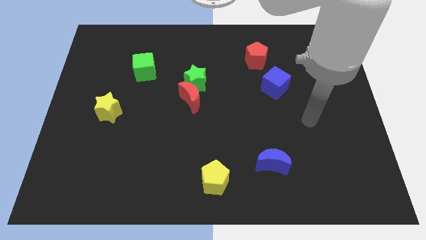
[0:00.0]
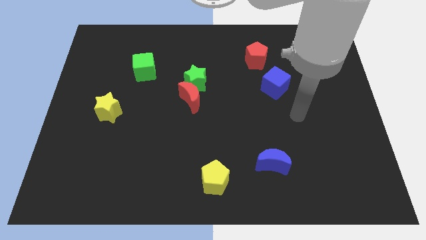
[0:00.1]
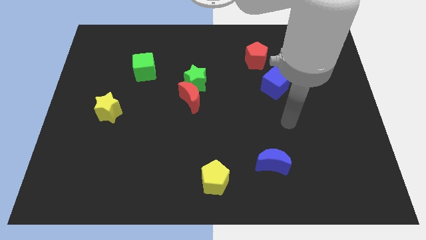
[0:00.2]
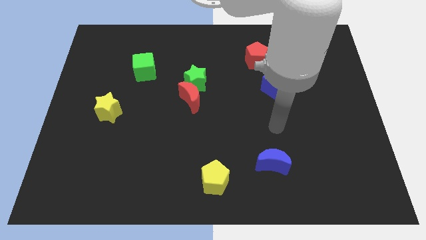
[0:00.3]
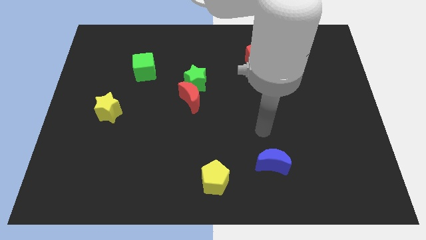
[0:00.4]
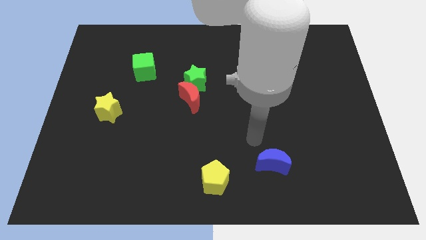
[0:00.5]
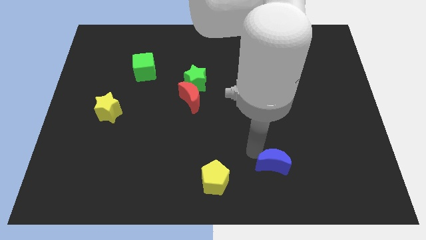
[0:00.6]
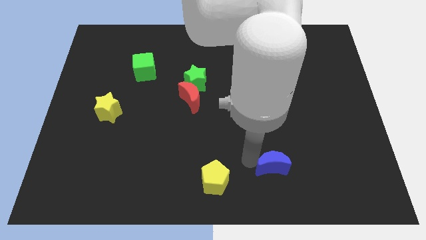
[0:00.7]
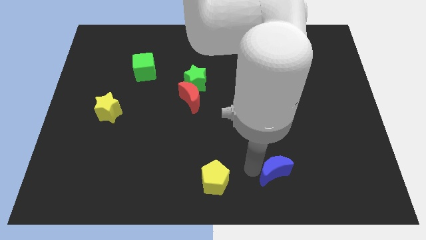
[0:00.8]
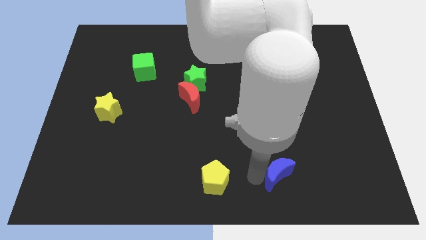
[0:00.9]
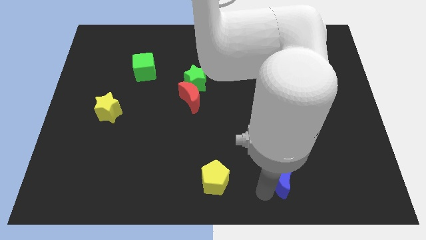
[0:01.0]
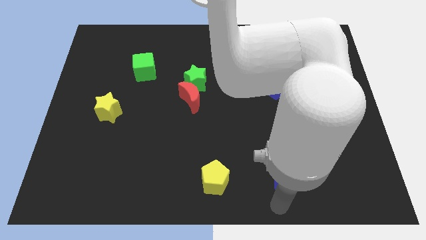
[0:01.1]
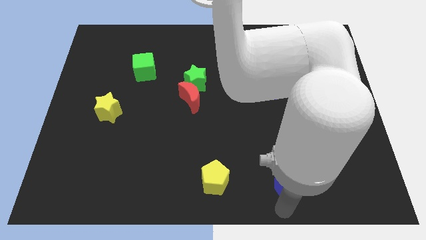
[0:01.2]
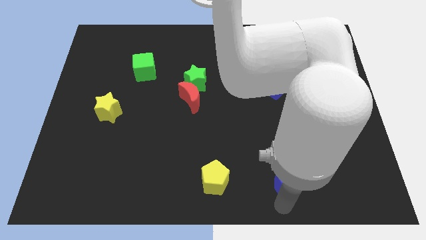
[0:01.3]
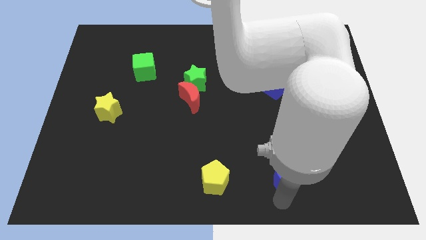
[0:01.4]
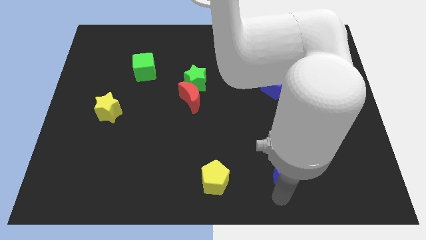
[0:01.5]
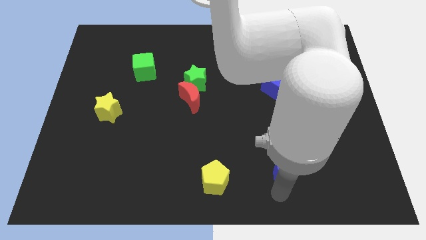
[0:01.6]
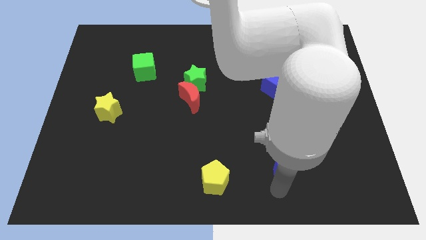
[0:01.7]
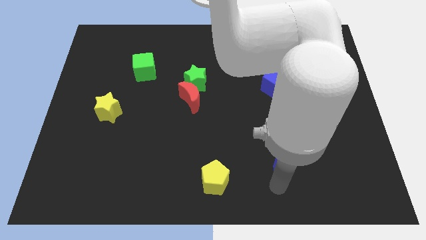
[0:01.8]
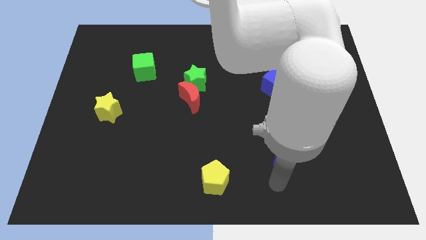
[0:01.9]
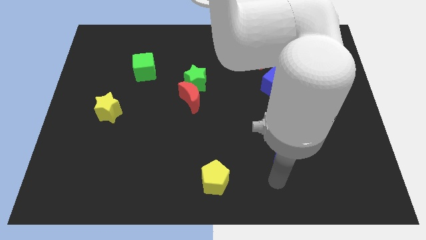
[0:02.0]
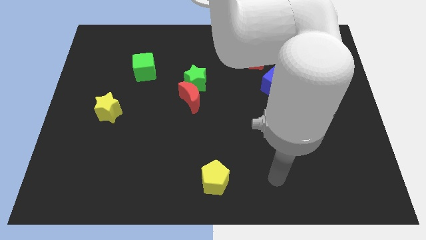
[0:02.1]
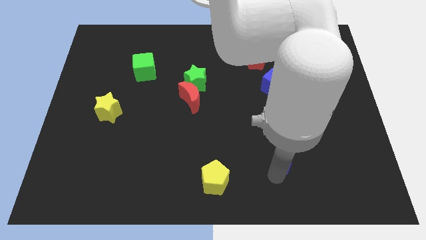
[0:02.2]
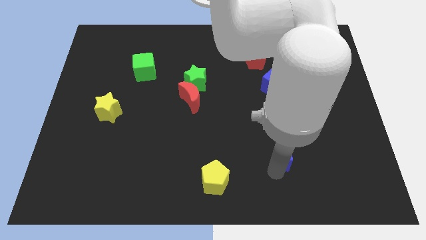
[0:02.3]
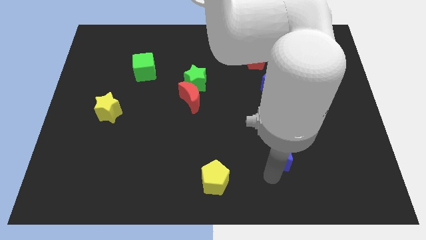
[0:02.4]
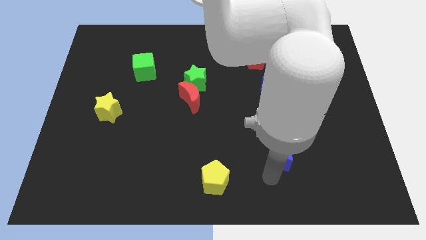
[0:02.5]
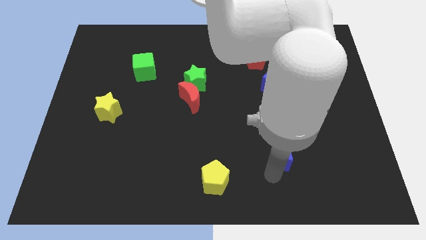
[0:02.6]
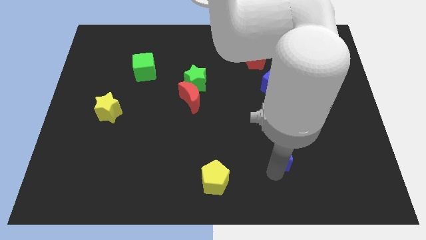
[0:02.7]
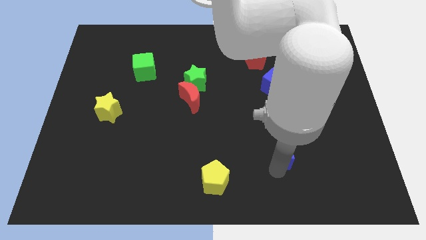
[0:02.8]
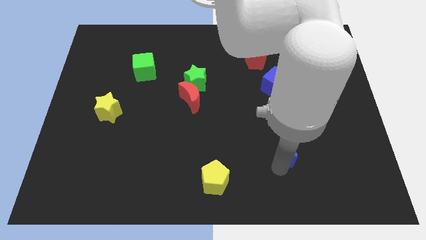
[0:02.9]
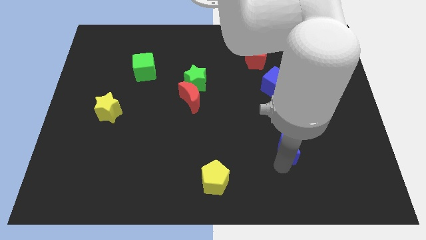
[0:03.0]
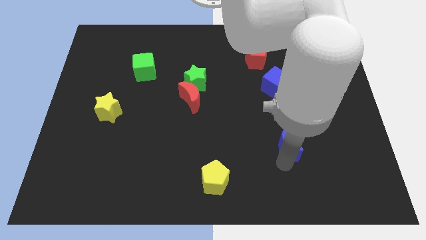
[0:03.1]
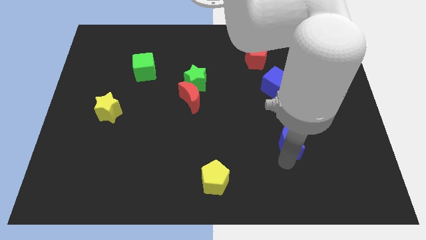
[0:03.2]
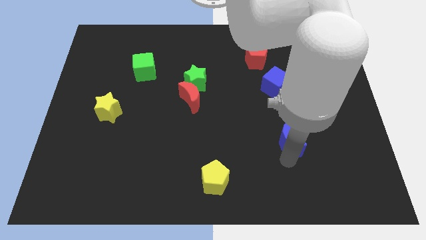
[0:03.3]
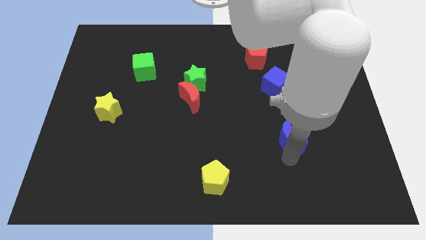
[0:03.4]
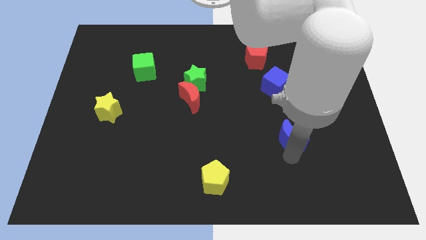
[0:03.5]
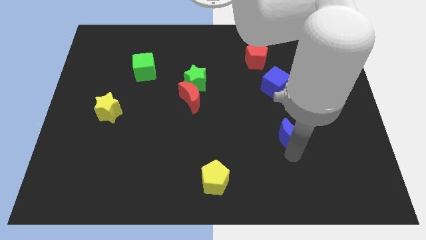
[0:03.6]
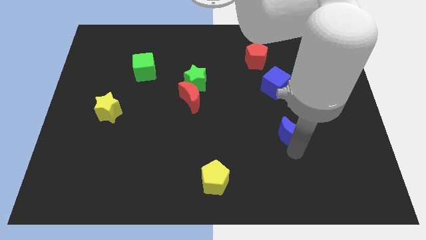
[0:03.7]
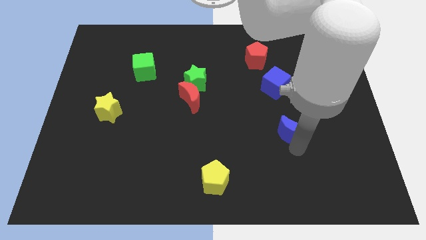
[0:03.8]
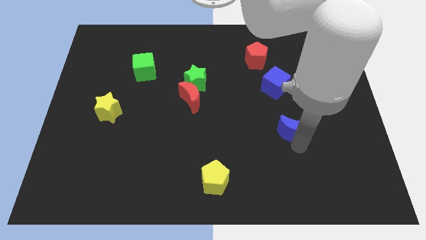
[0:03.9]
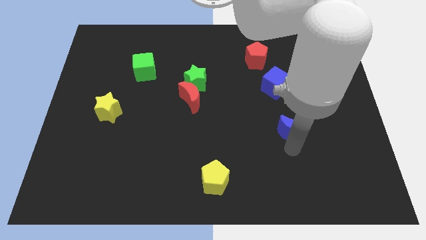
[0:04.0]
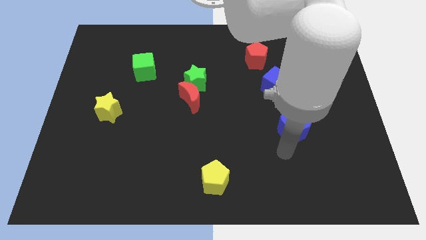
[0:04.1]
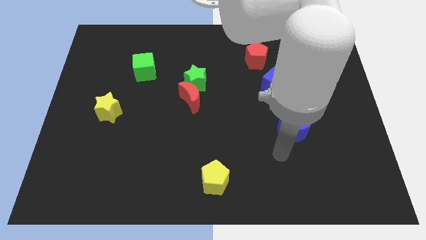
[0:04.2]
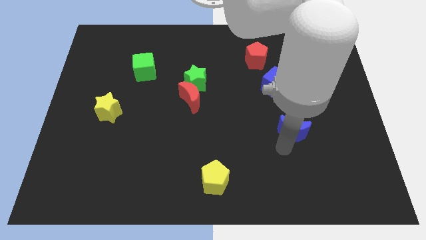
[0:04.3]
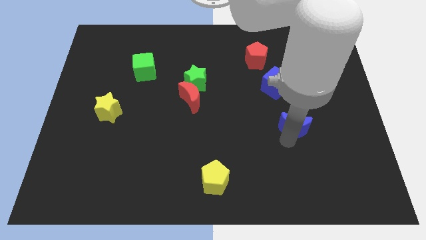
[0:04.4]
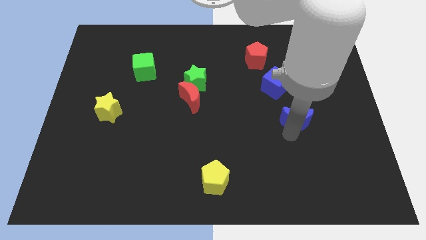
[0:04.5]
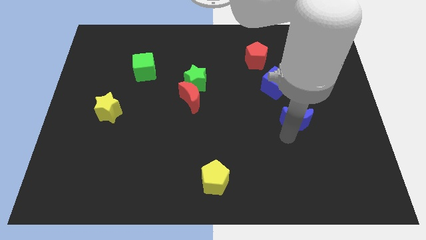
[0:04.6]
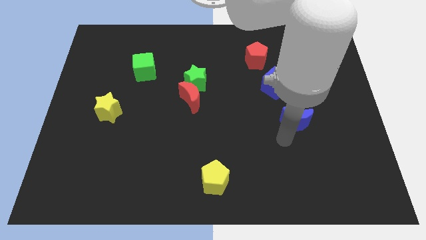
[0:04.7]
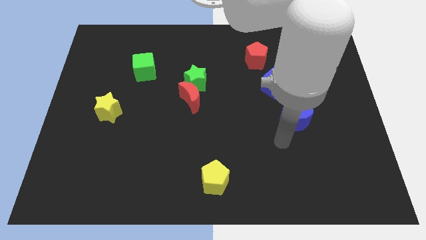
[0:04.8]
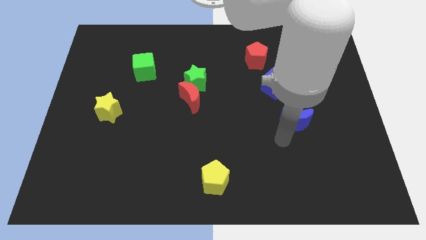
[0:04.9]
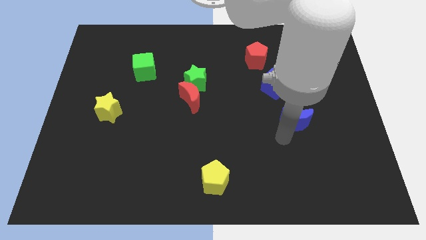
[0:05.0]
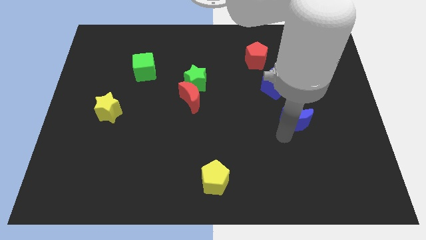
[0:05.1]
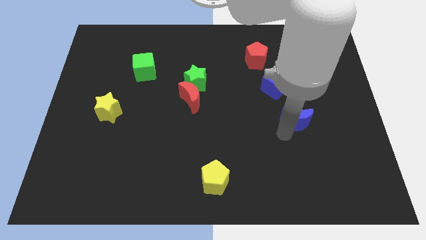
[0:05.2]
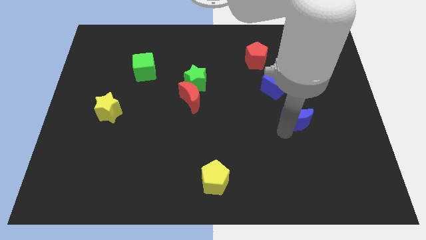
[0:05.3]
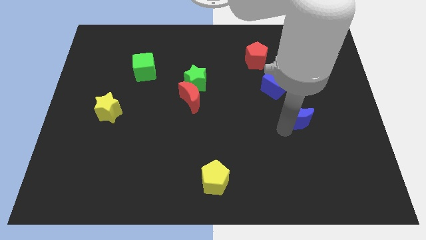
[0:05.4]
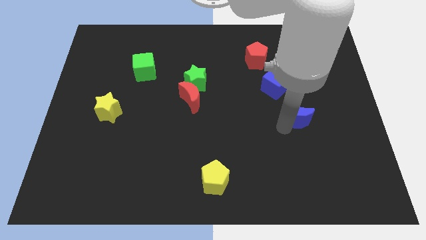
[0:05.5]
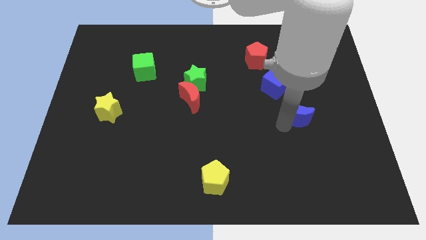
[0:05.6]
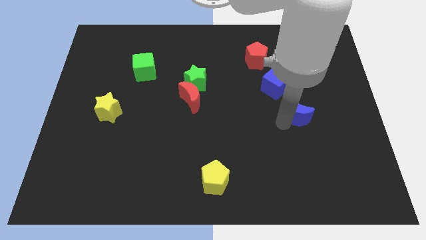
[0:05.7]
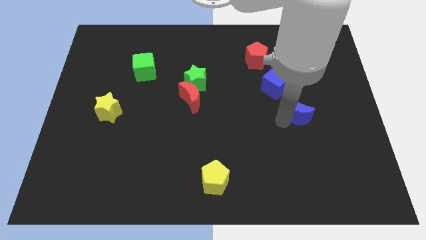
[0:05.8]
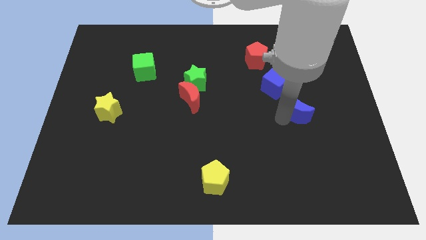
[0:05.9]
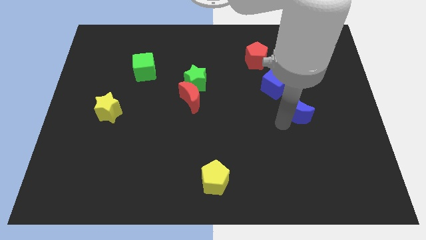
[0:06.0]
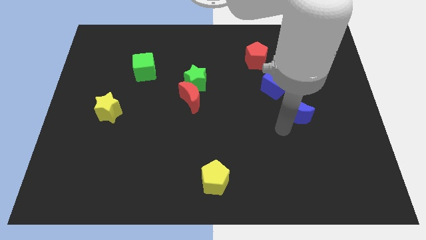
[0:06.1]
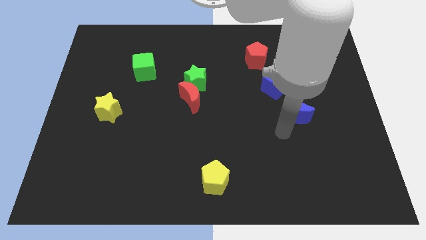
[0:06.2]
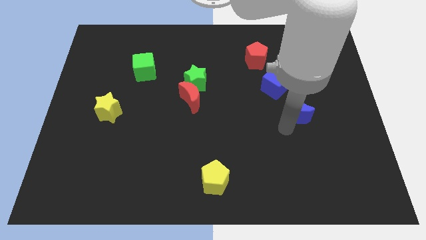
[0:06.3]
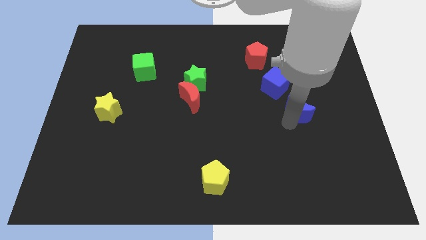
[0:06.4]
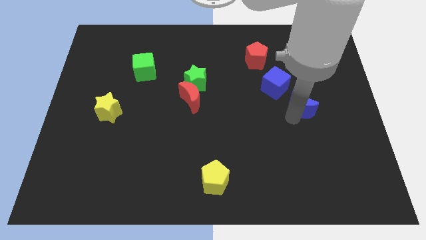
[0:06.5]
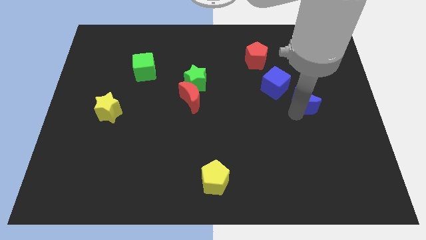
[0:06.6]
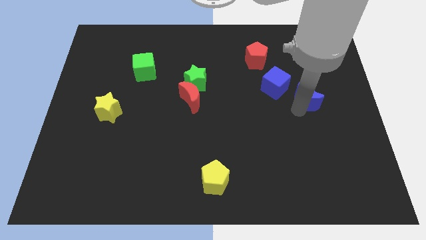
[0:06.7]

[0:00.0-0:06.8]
put the blue moon just right of the blue cube
